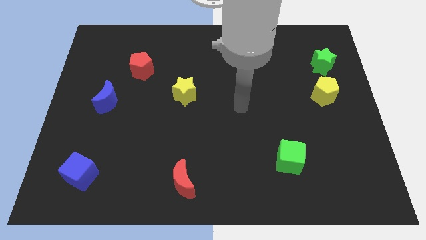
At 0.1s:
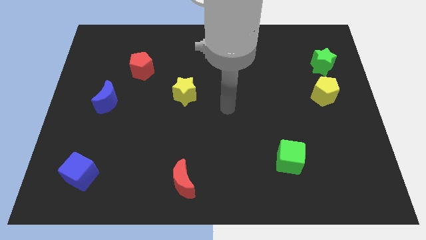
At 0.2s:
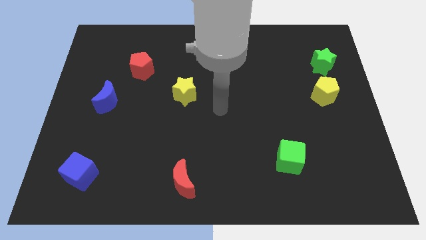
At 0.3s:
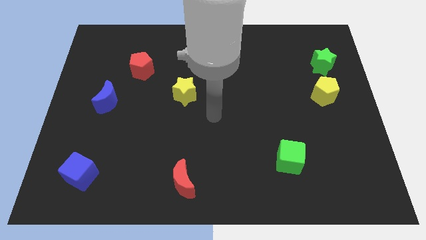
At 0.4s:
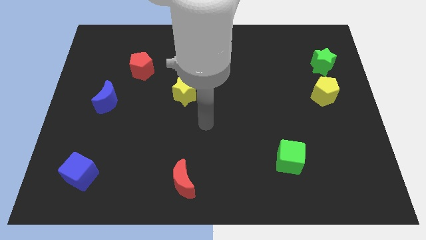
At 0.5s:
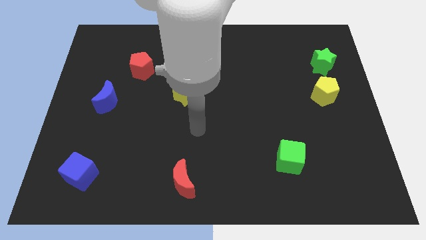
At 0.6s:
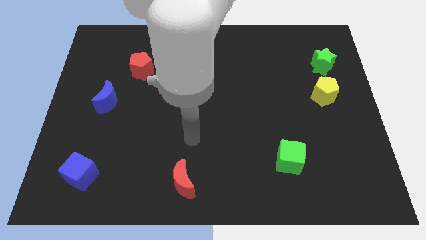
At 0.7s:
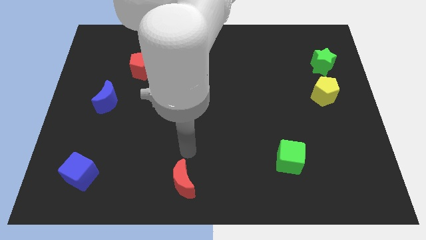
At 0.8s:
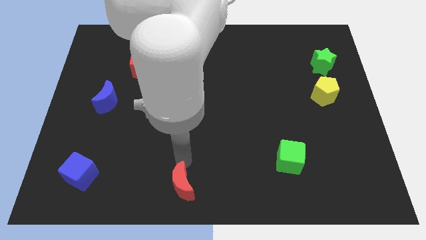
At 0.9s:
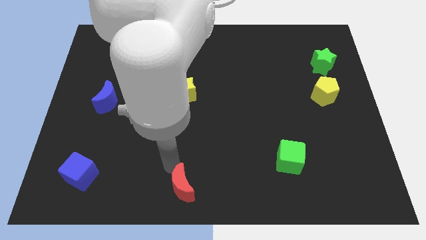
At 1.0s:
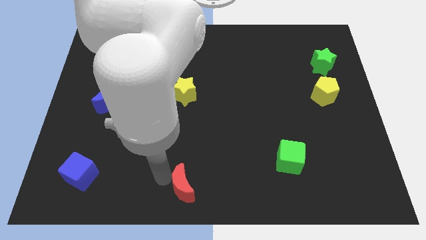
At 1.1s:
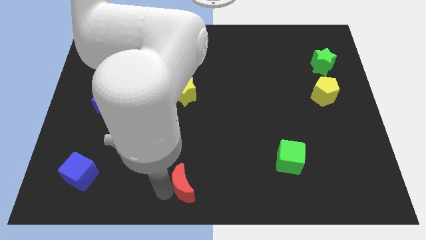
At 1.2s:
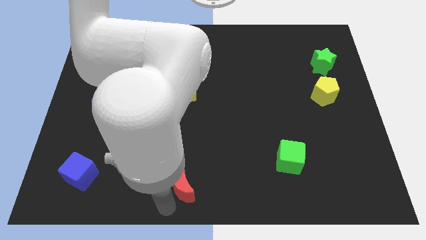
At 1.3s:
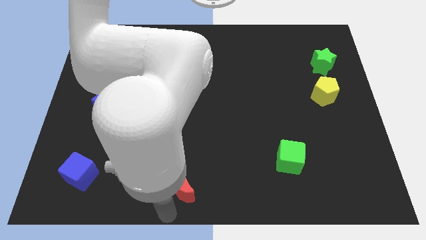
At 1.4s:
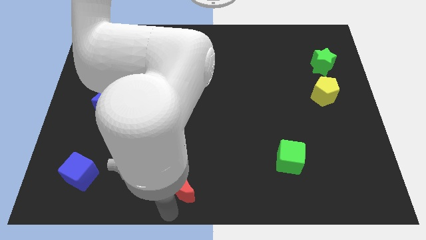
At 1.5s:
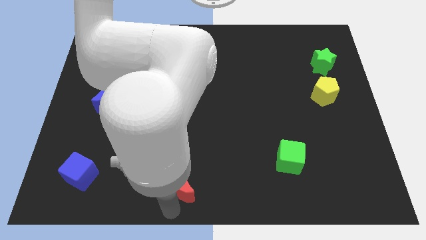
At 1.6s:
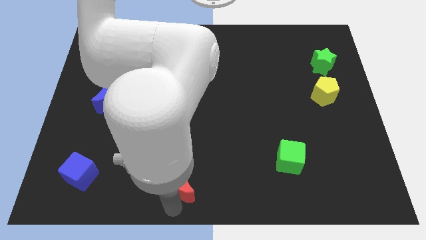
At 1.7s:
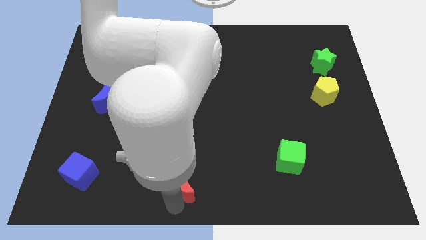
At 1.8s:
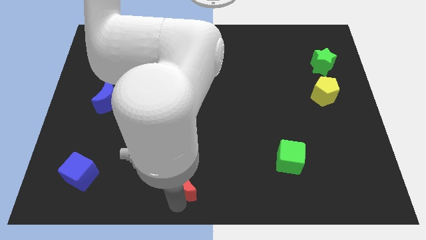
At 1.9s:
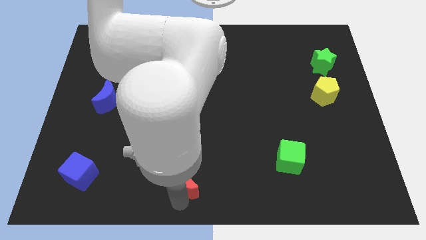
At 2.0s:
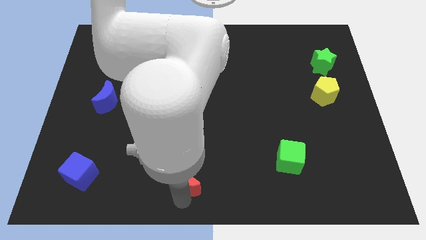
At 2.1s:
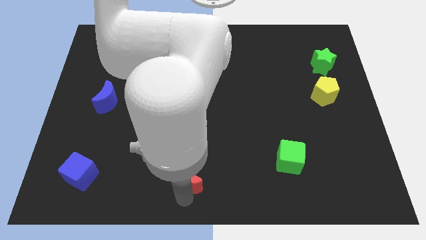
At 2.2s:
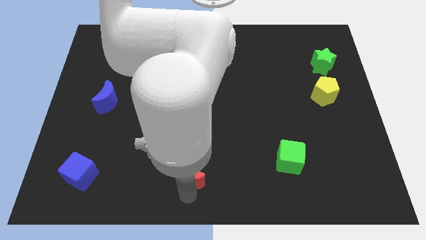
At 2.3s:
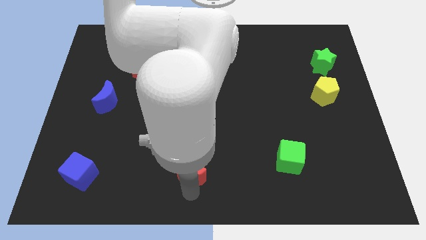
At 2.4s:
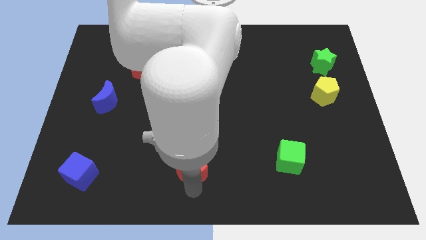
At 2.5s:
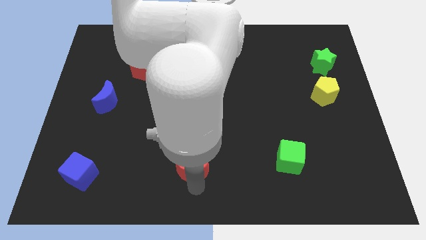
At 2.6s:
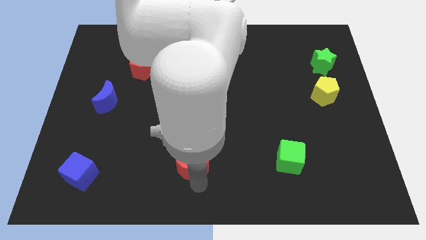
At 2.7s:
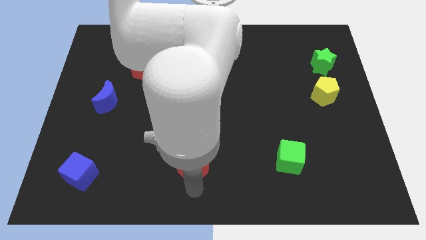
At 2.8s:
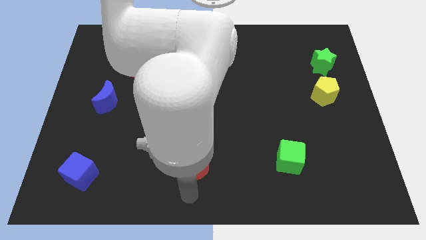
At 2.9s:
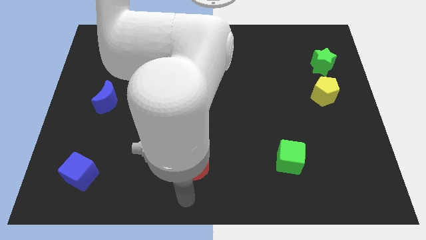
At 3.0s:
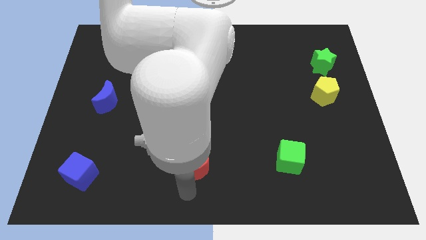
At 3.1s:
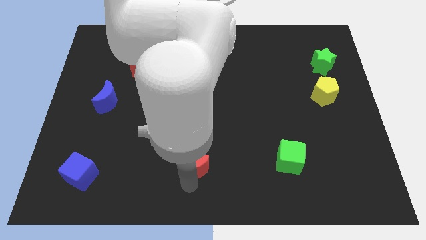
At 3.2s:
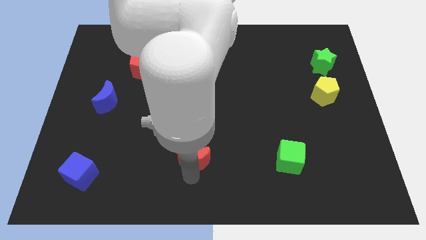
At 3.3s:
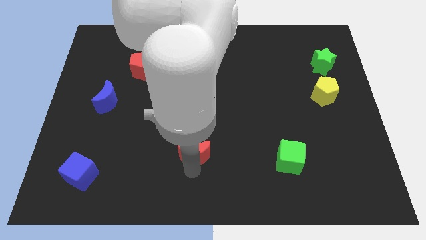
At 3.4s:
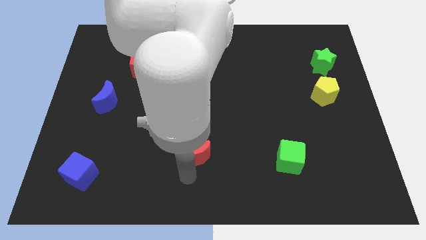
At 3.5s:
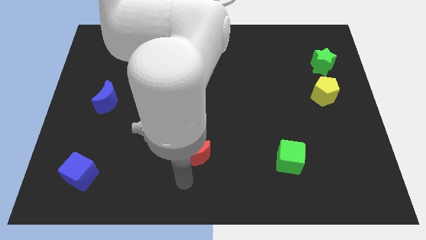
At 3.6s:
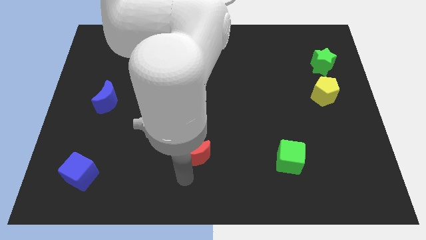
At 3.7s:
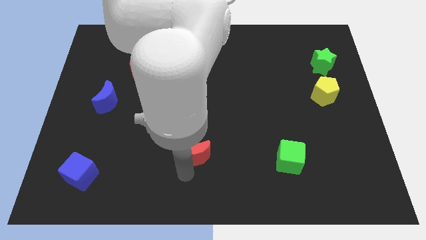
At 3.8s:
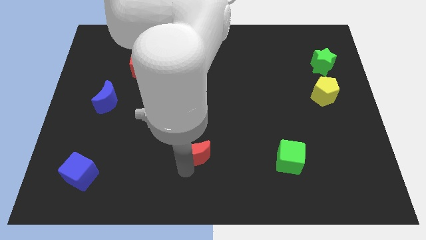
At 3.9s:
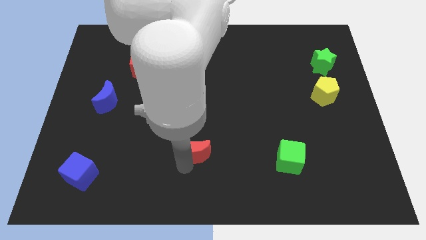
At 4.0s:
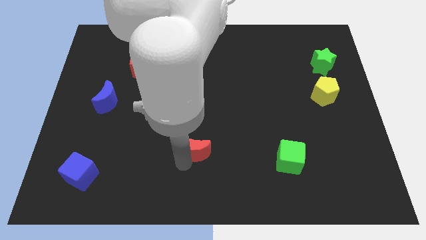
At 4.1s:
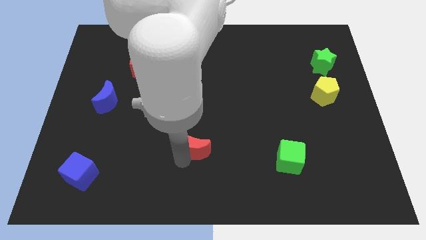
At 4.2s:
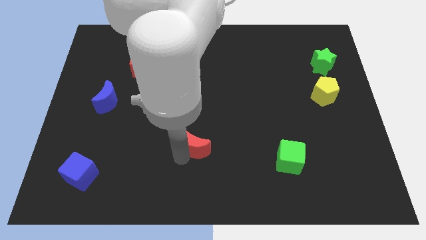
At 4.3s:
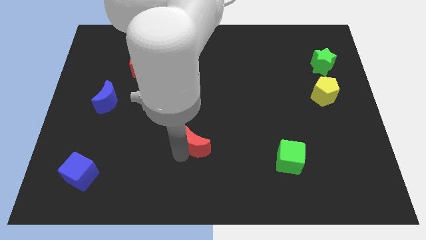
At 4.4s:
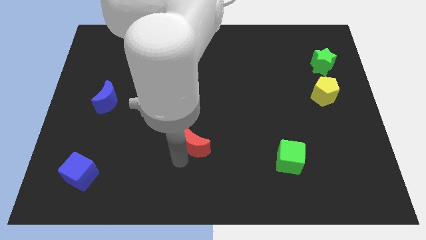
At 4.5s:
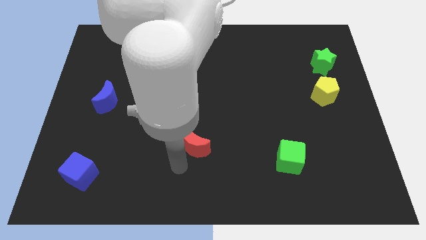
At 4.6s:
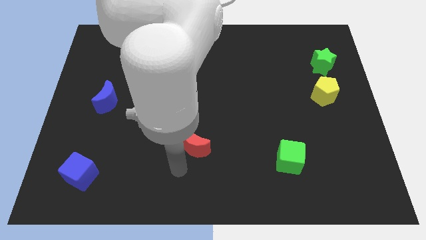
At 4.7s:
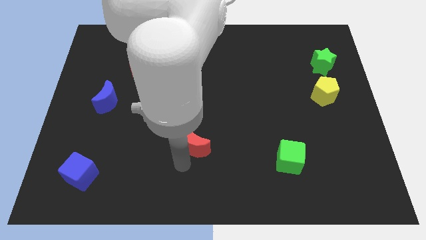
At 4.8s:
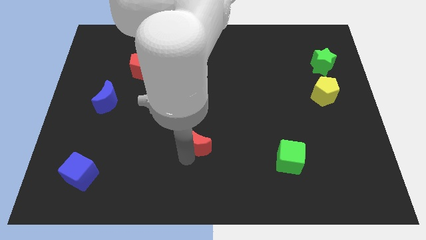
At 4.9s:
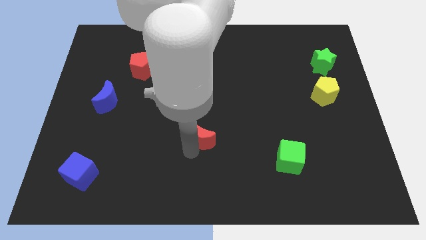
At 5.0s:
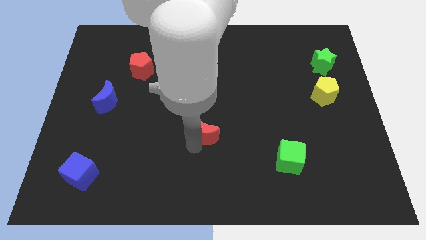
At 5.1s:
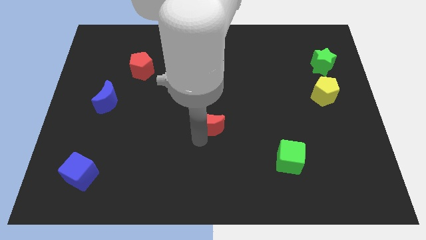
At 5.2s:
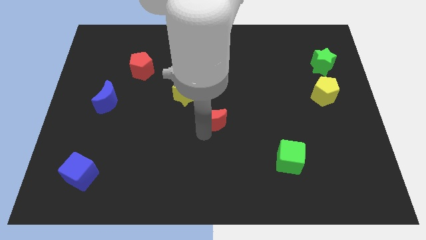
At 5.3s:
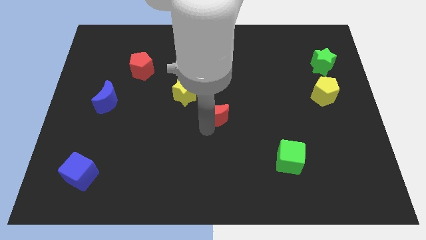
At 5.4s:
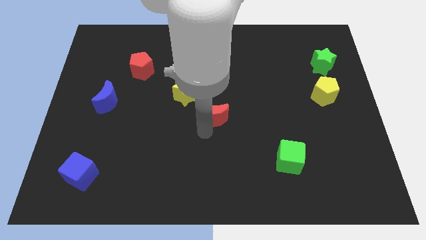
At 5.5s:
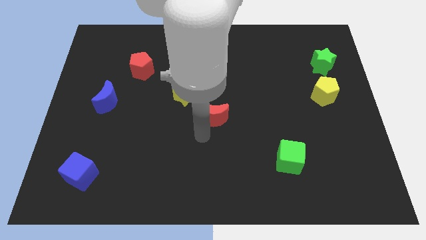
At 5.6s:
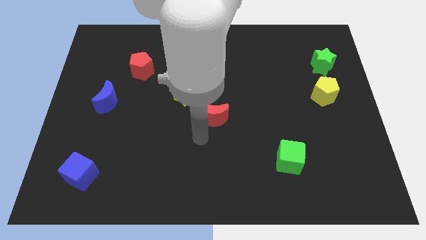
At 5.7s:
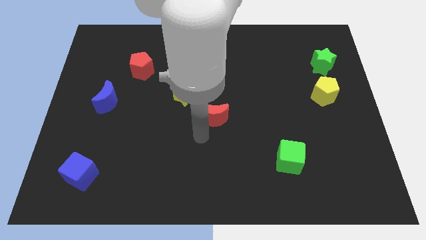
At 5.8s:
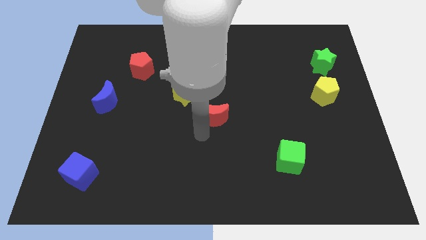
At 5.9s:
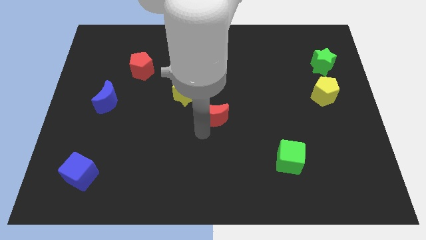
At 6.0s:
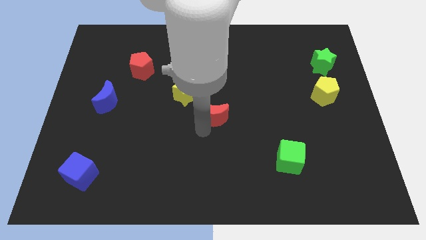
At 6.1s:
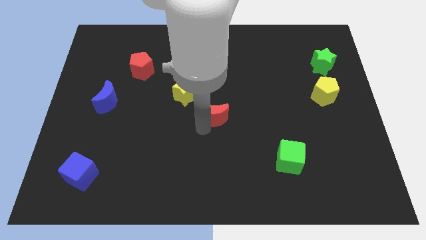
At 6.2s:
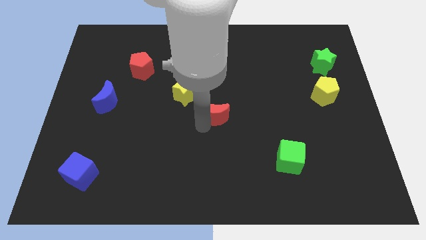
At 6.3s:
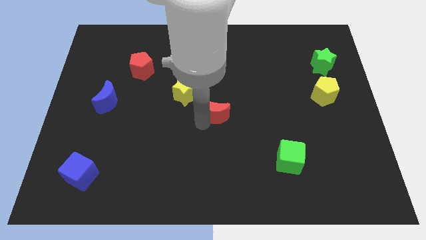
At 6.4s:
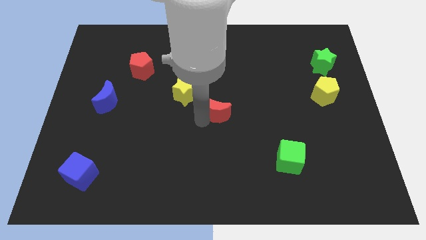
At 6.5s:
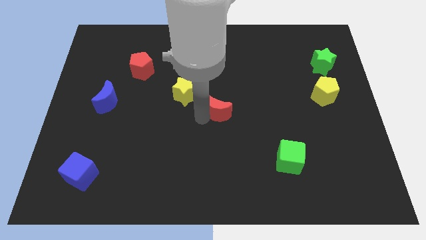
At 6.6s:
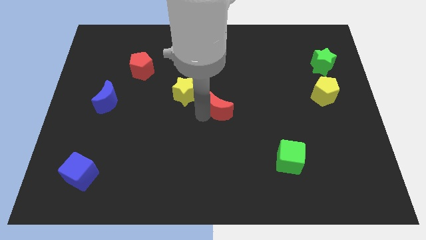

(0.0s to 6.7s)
slide the red moon right of the yellow star

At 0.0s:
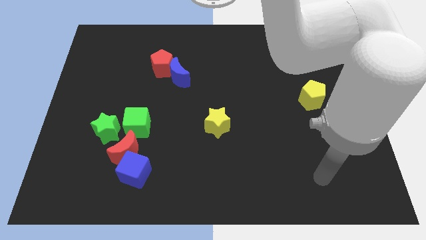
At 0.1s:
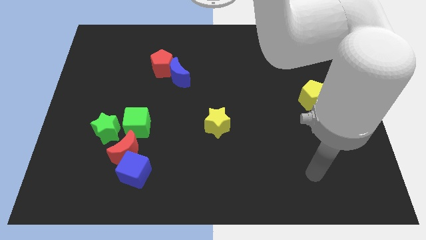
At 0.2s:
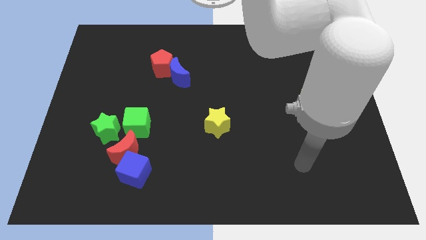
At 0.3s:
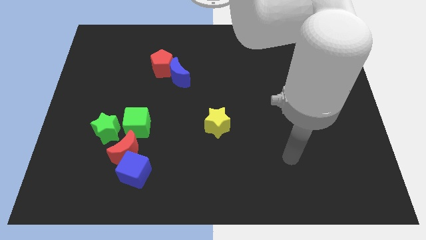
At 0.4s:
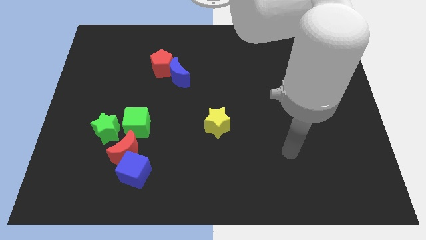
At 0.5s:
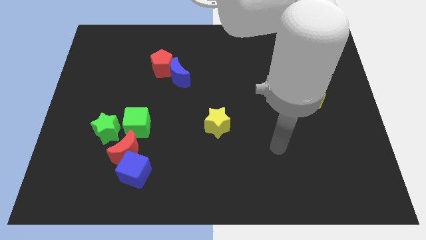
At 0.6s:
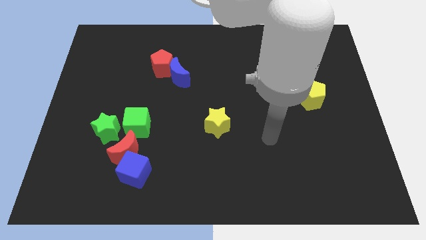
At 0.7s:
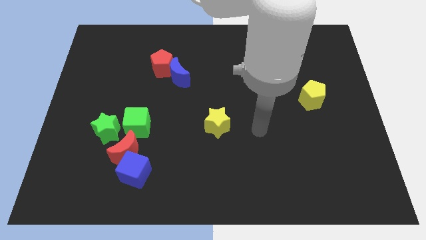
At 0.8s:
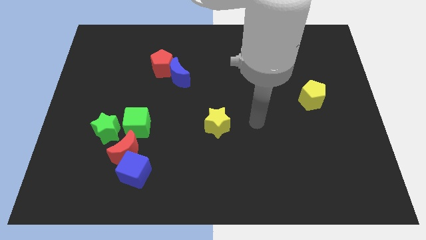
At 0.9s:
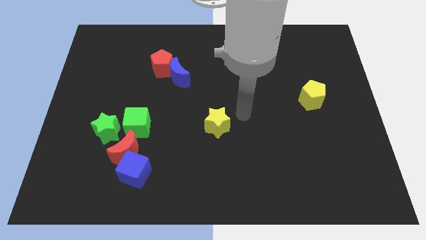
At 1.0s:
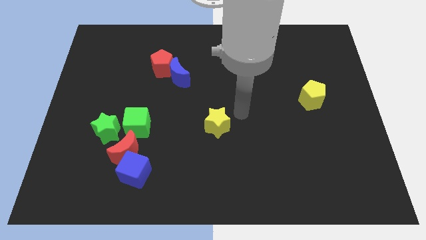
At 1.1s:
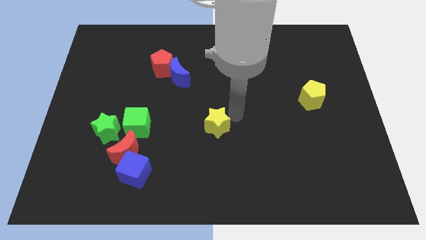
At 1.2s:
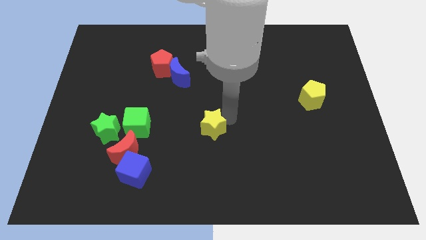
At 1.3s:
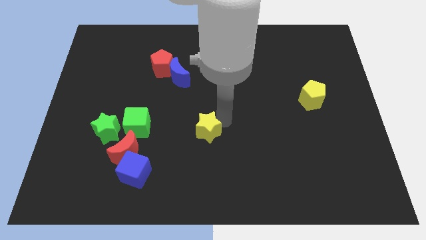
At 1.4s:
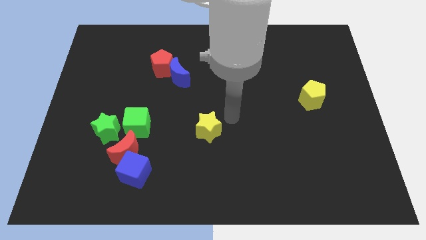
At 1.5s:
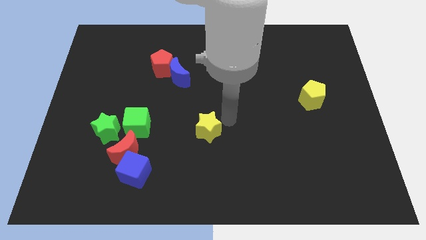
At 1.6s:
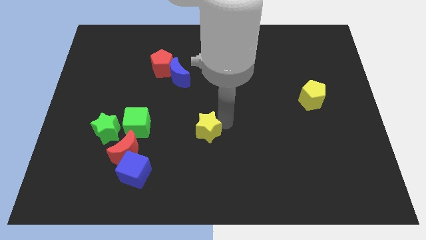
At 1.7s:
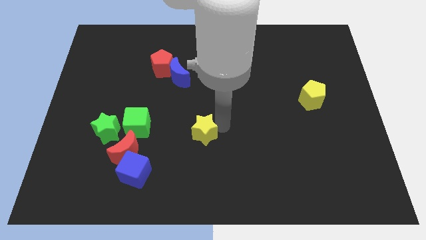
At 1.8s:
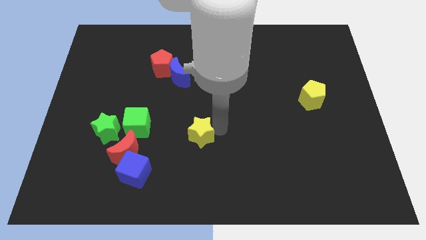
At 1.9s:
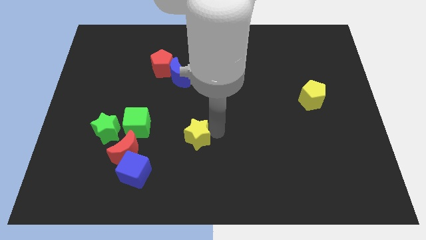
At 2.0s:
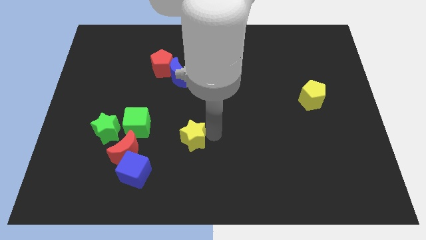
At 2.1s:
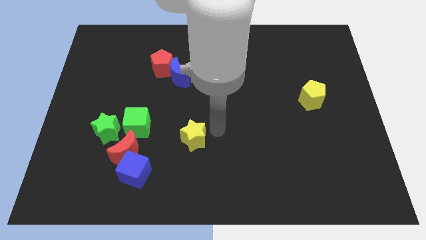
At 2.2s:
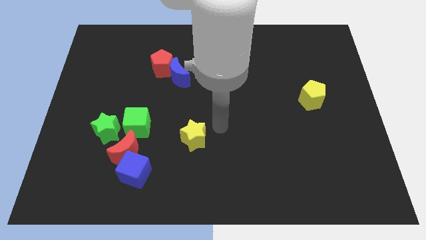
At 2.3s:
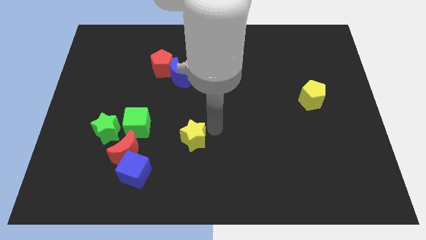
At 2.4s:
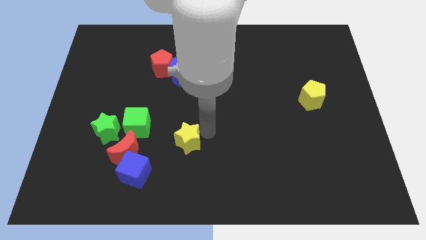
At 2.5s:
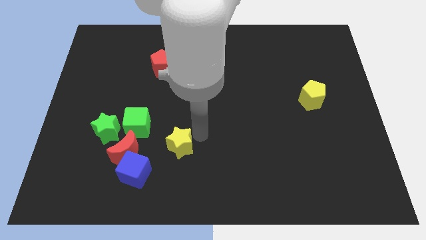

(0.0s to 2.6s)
move the yellow star diagonally up and to the right of the blue cube
